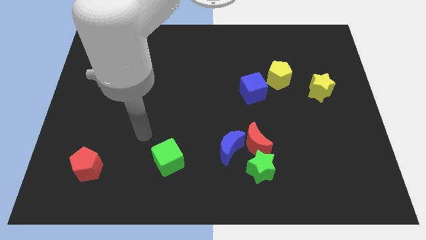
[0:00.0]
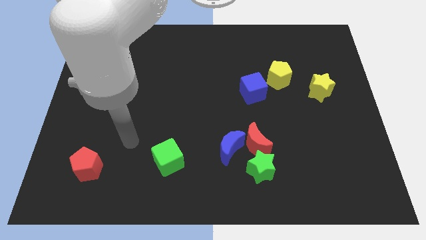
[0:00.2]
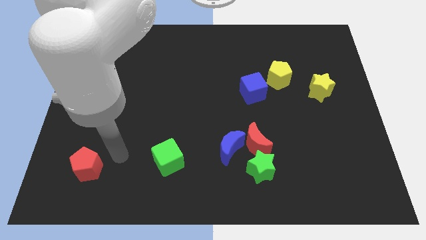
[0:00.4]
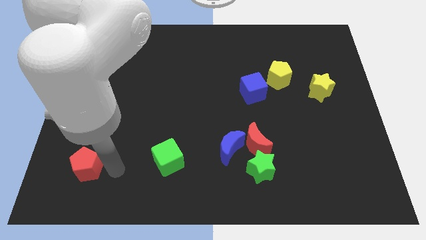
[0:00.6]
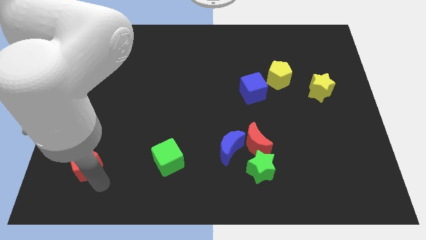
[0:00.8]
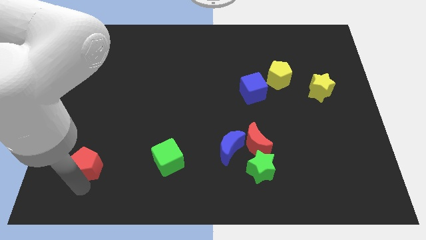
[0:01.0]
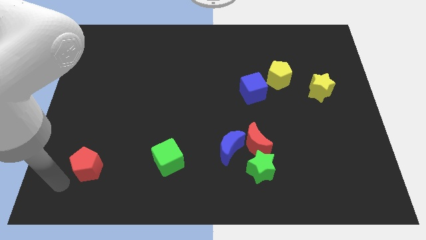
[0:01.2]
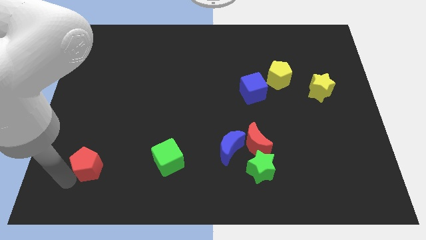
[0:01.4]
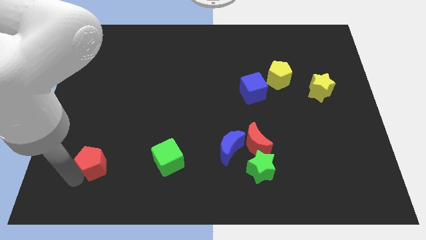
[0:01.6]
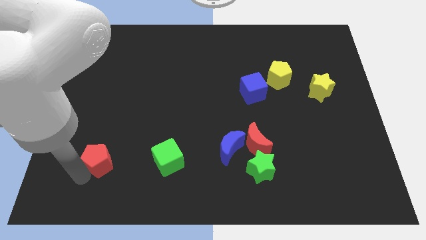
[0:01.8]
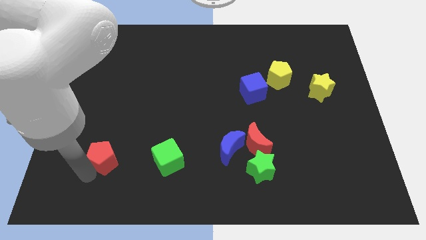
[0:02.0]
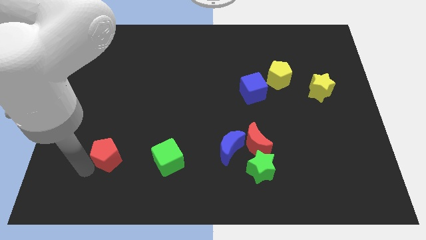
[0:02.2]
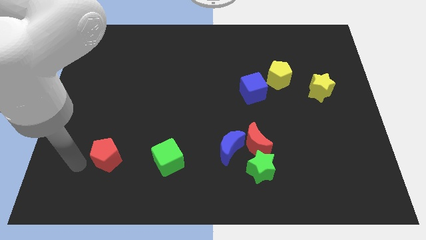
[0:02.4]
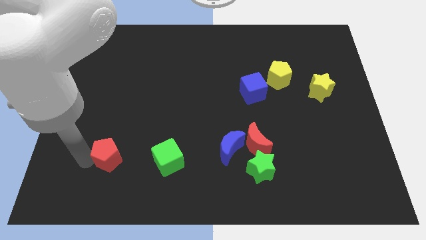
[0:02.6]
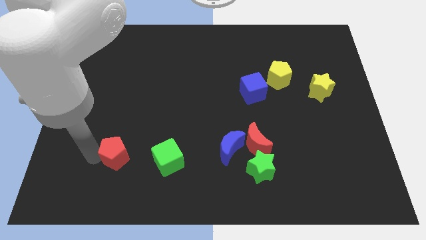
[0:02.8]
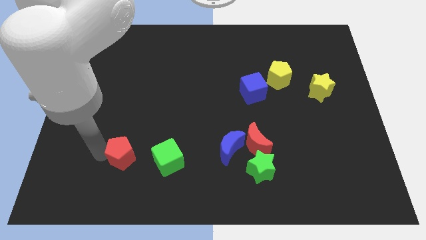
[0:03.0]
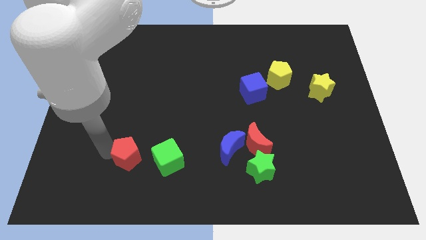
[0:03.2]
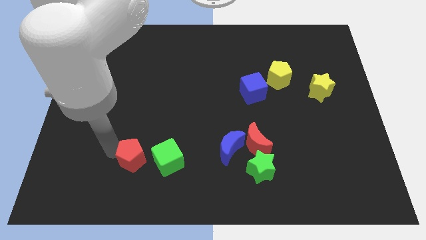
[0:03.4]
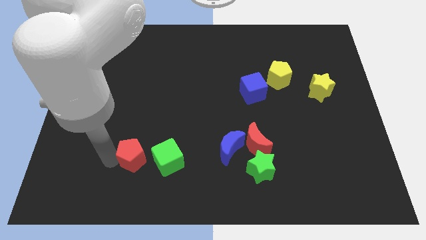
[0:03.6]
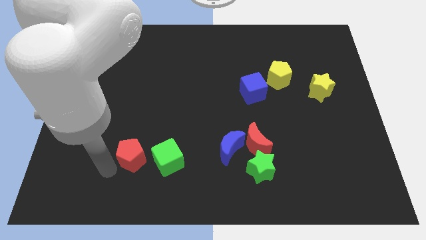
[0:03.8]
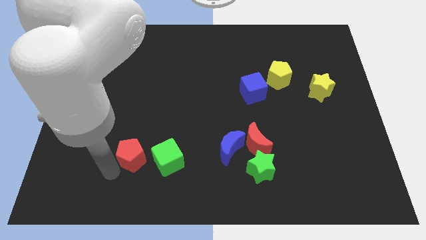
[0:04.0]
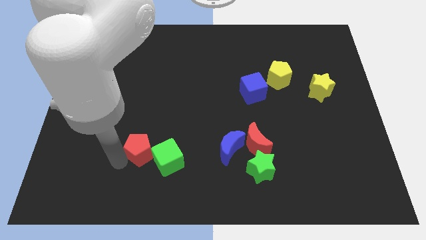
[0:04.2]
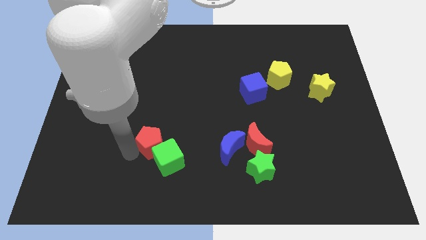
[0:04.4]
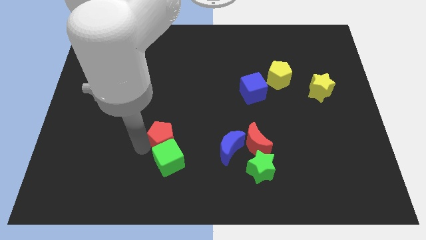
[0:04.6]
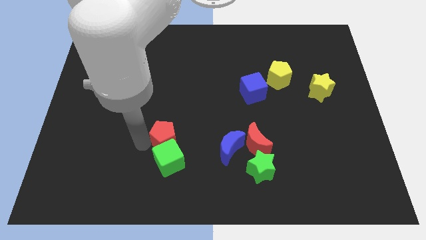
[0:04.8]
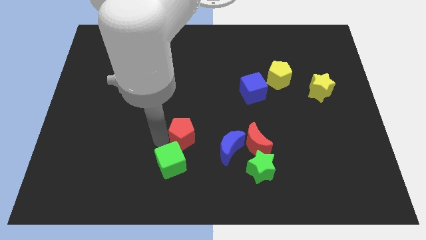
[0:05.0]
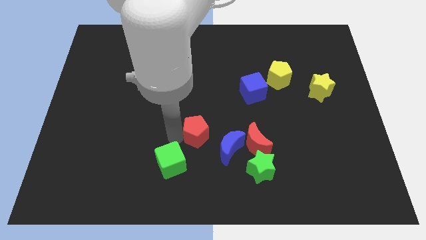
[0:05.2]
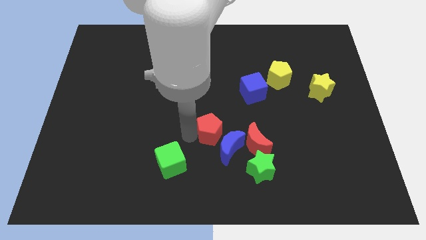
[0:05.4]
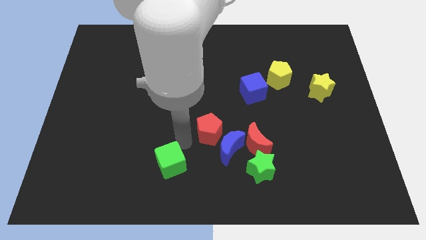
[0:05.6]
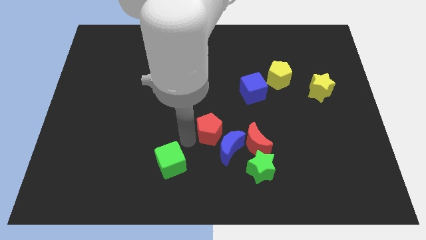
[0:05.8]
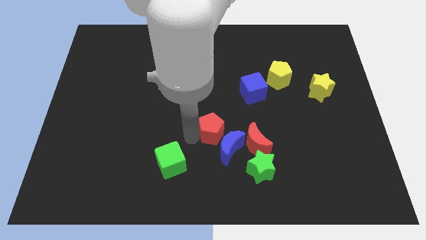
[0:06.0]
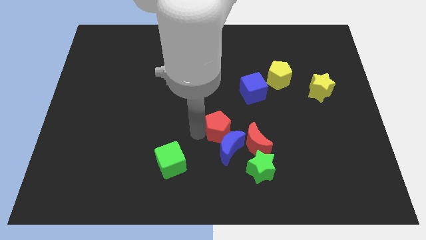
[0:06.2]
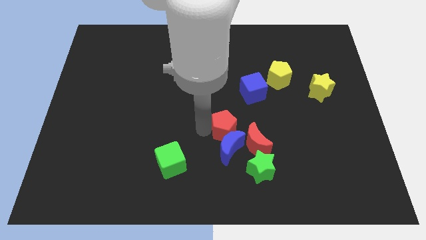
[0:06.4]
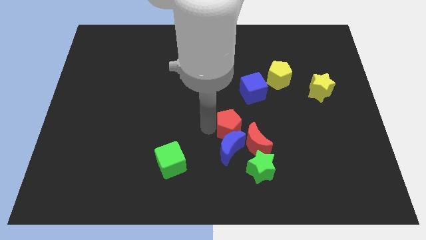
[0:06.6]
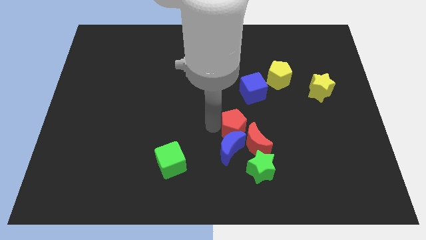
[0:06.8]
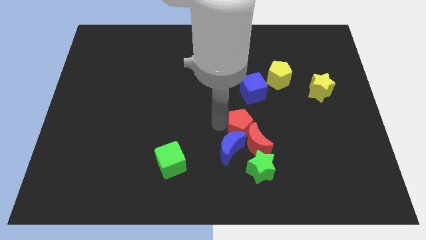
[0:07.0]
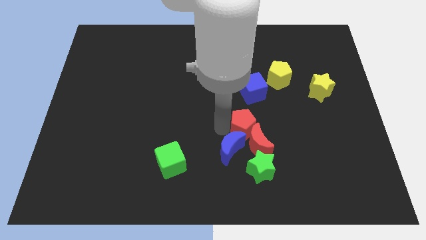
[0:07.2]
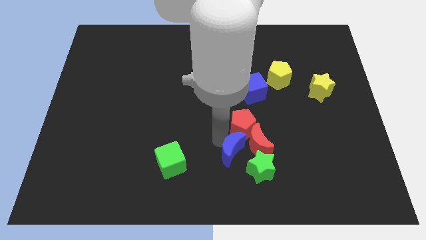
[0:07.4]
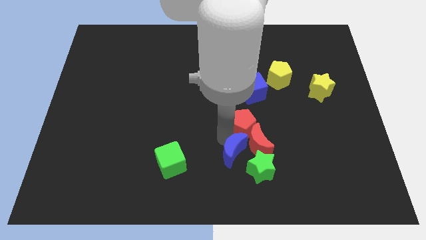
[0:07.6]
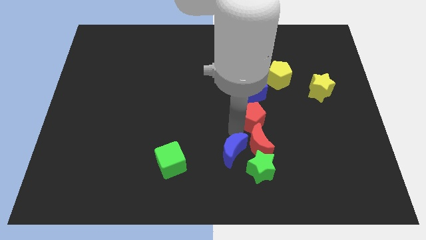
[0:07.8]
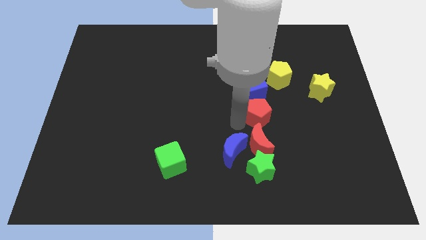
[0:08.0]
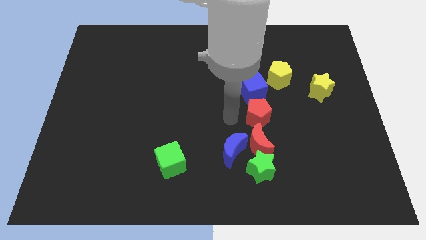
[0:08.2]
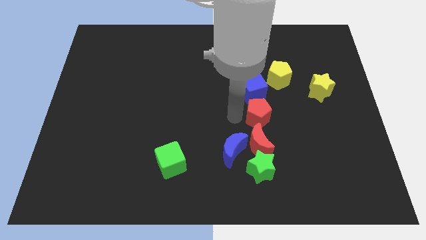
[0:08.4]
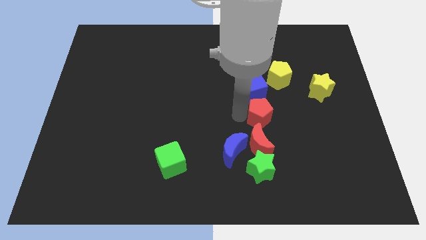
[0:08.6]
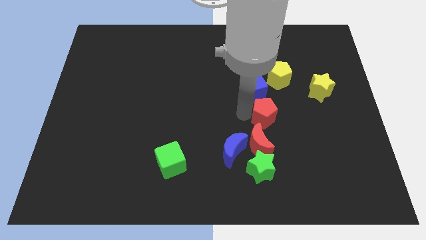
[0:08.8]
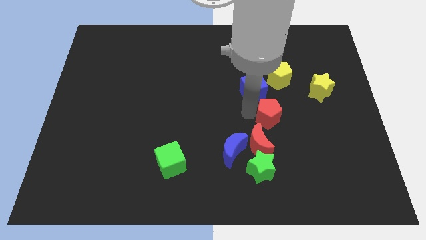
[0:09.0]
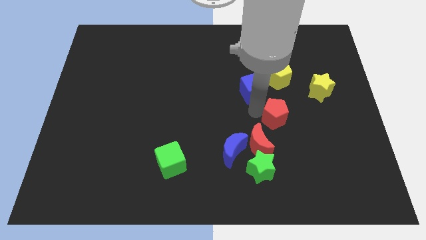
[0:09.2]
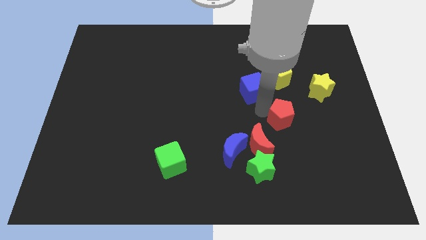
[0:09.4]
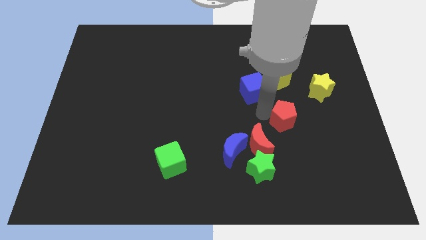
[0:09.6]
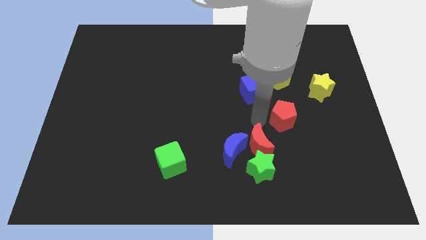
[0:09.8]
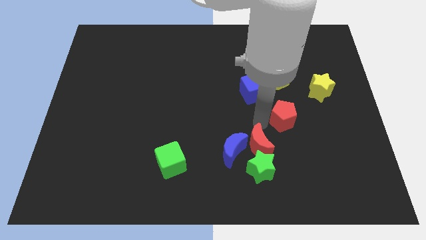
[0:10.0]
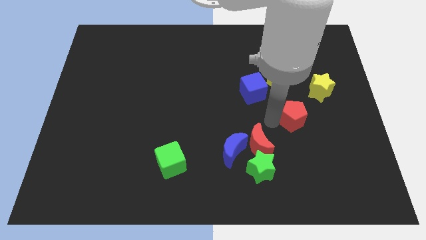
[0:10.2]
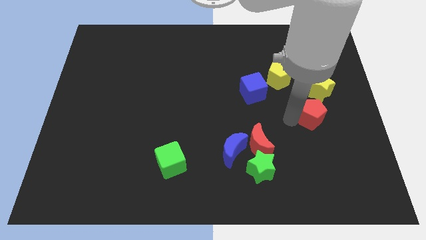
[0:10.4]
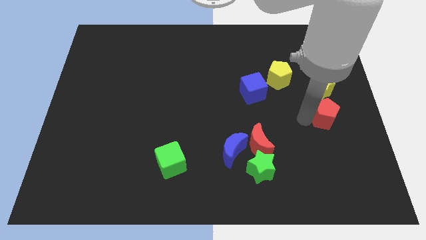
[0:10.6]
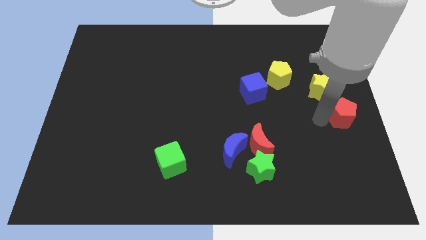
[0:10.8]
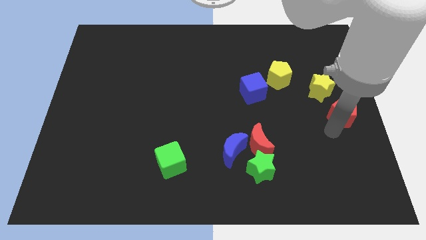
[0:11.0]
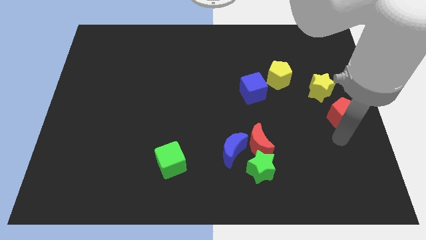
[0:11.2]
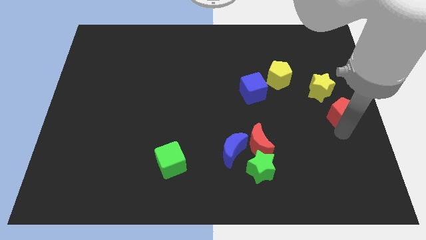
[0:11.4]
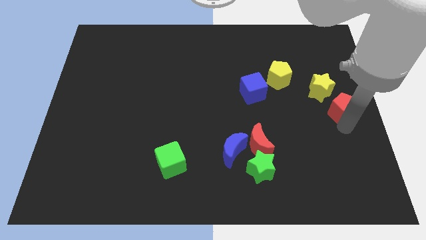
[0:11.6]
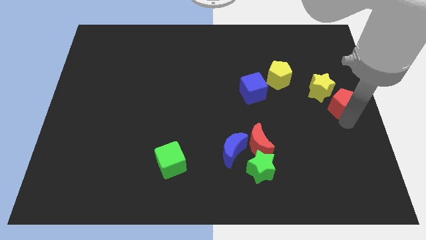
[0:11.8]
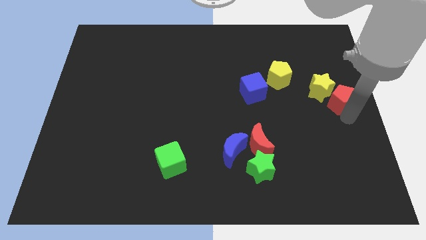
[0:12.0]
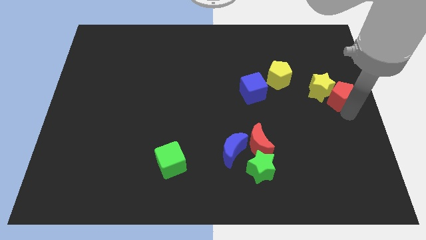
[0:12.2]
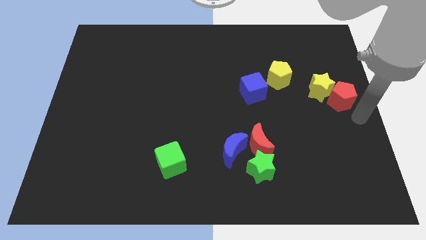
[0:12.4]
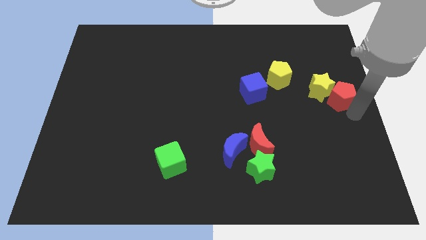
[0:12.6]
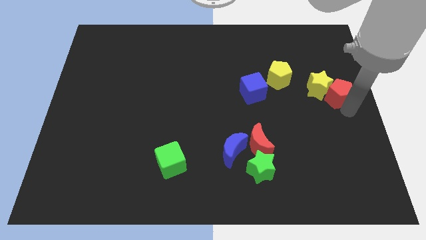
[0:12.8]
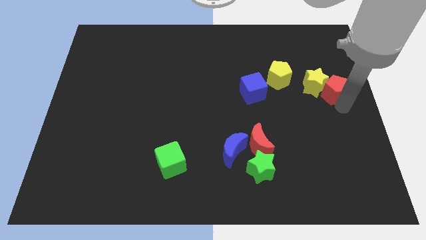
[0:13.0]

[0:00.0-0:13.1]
put the red pentagon just right of the yellow pentagon
